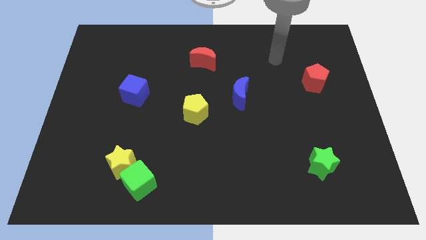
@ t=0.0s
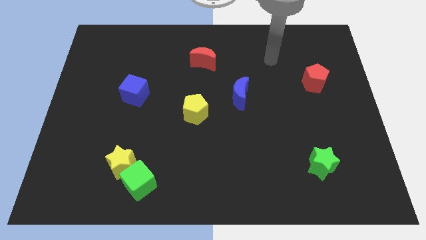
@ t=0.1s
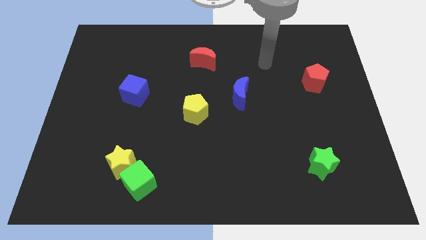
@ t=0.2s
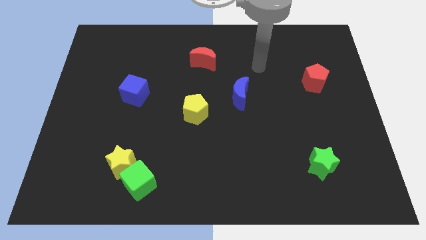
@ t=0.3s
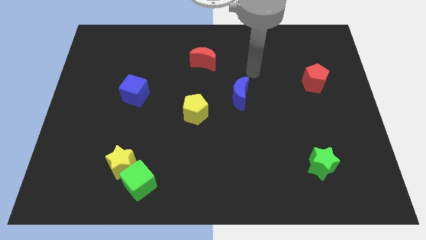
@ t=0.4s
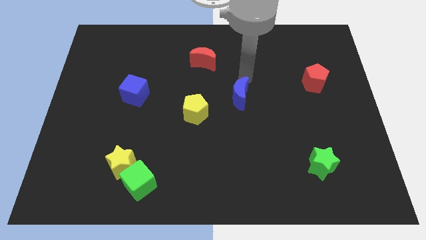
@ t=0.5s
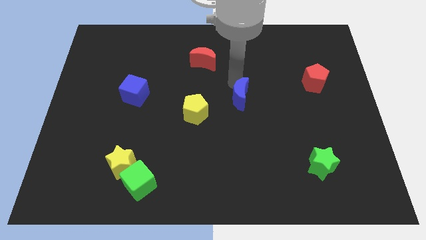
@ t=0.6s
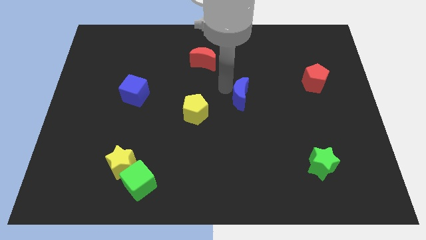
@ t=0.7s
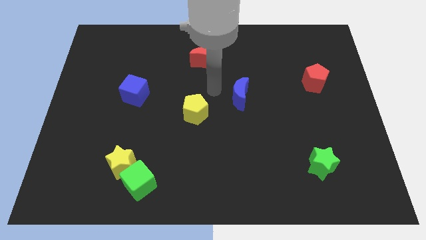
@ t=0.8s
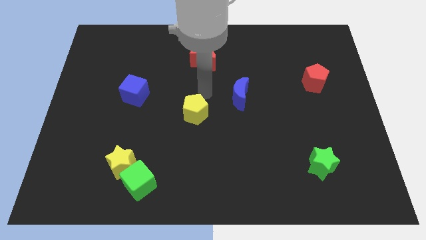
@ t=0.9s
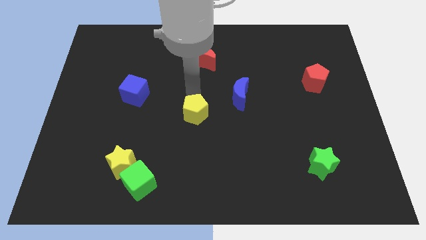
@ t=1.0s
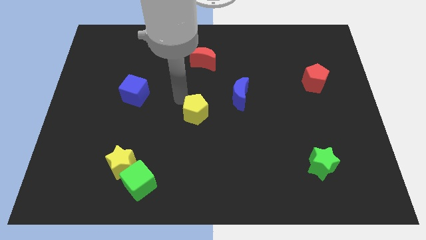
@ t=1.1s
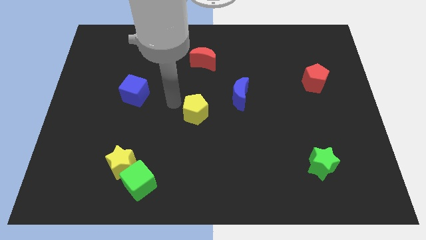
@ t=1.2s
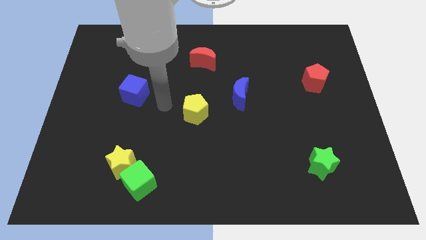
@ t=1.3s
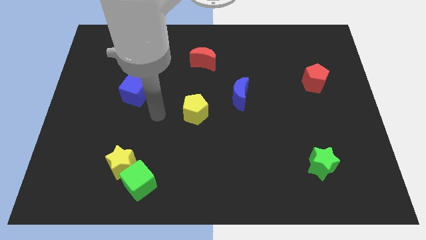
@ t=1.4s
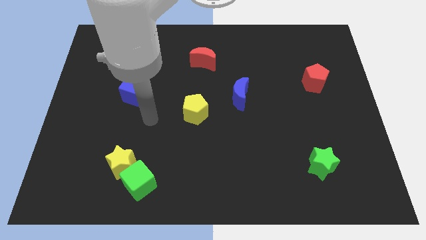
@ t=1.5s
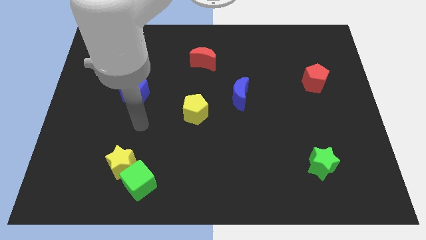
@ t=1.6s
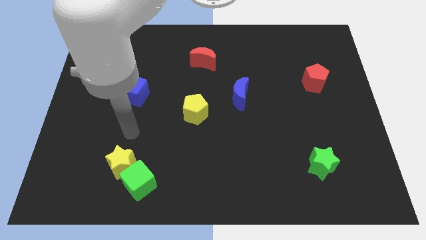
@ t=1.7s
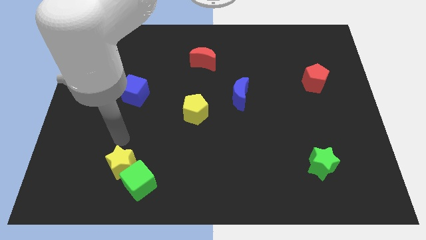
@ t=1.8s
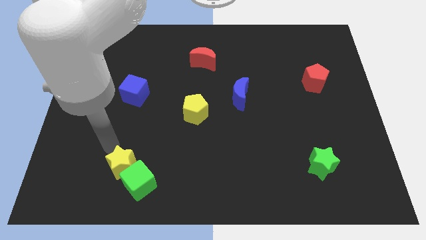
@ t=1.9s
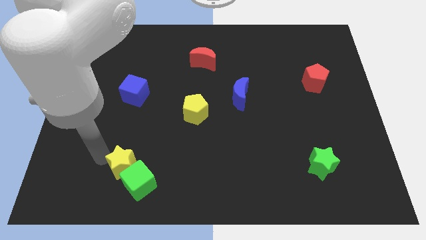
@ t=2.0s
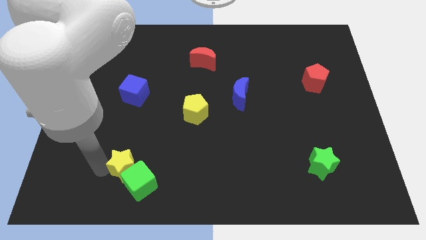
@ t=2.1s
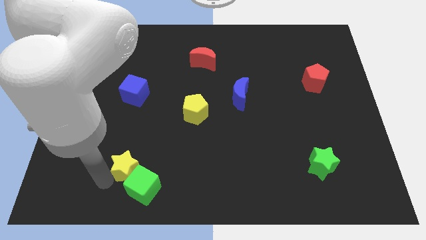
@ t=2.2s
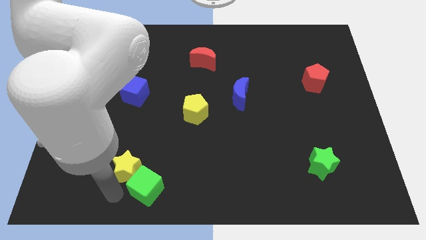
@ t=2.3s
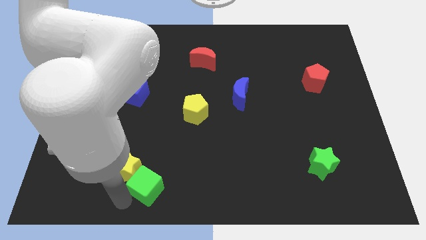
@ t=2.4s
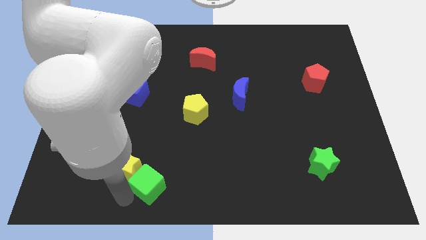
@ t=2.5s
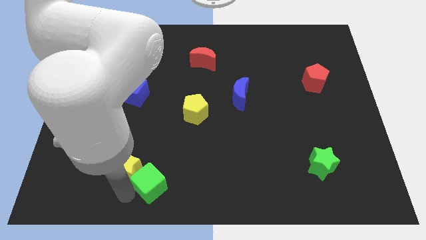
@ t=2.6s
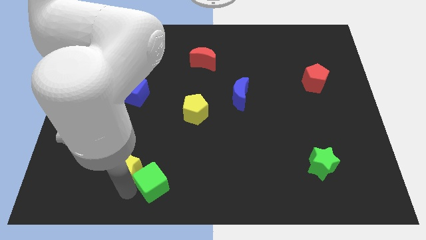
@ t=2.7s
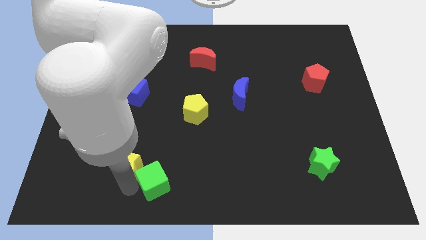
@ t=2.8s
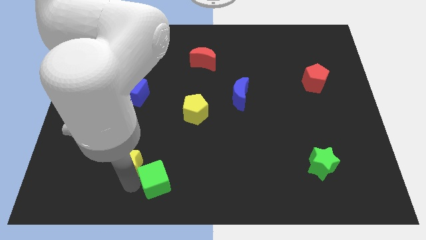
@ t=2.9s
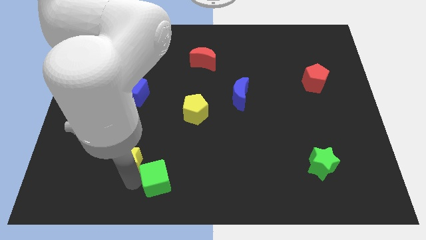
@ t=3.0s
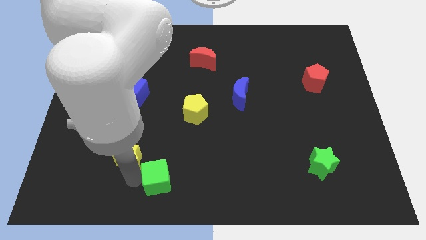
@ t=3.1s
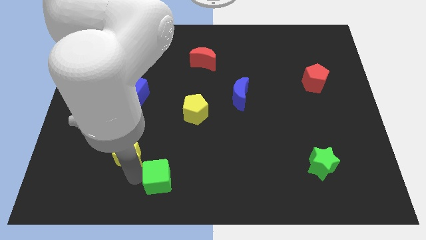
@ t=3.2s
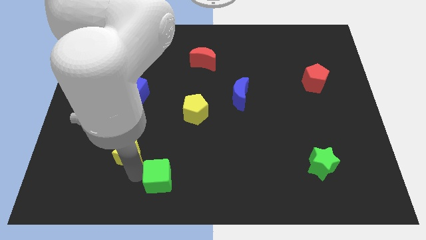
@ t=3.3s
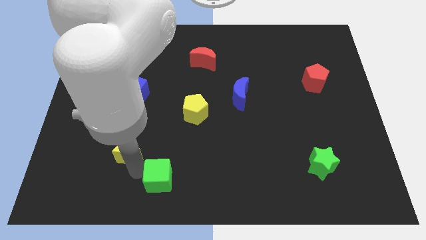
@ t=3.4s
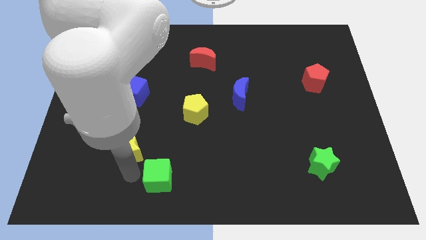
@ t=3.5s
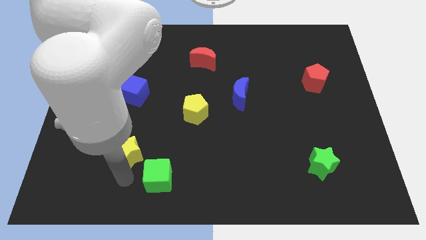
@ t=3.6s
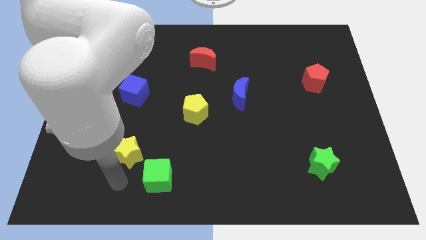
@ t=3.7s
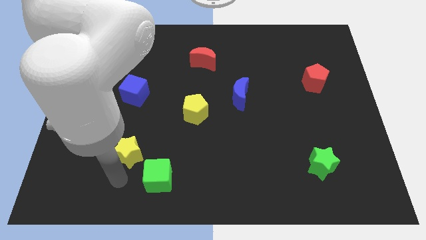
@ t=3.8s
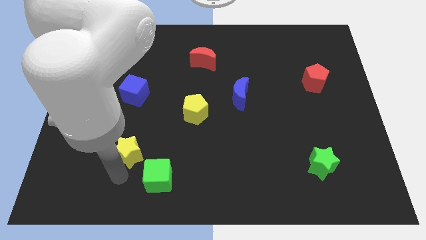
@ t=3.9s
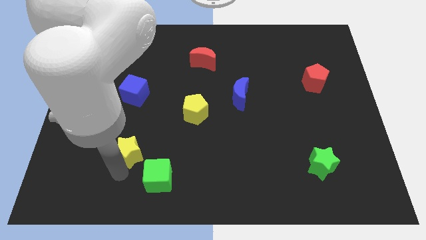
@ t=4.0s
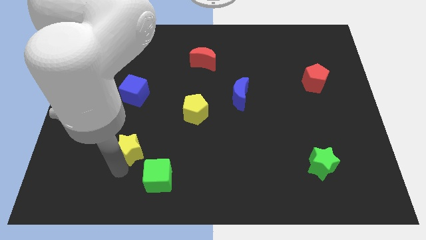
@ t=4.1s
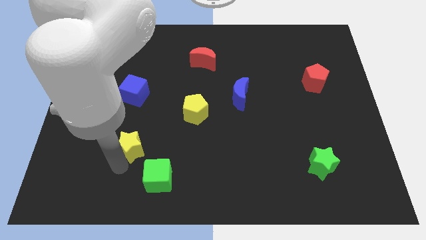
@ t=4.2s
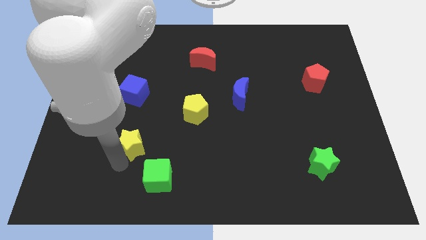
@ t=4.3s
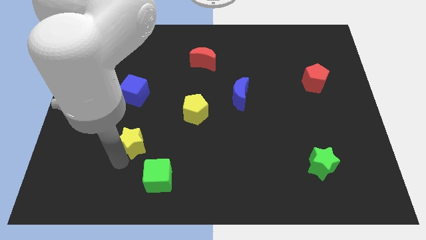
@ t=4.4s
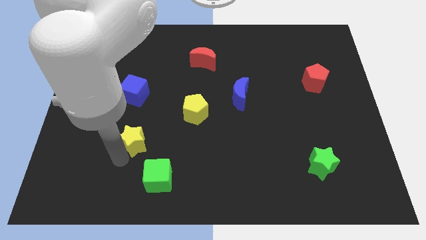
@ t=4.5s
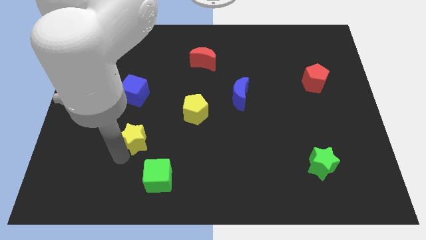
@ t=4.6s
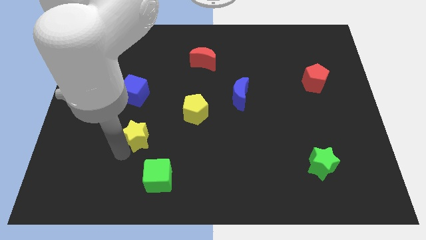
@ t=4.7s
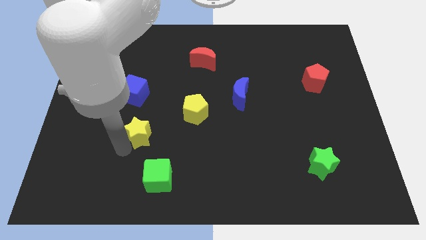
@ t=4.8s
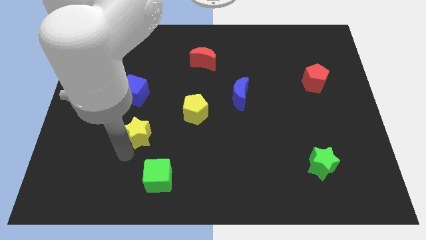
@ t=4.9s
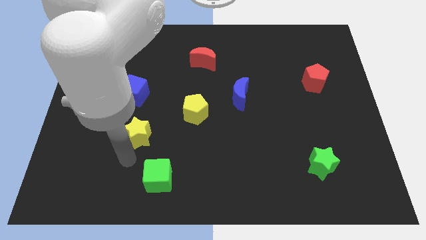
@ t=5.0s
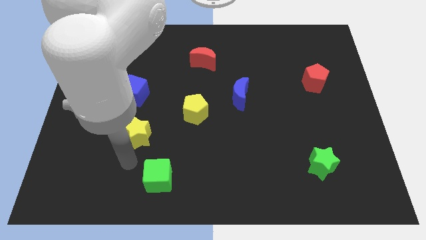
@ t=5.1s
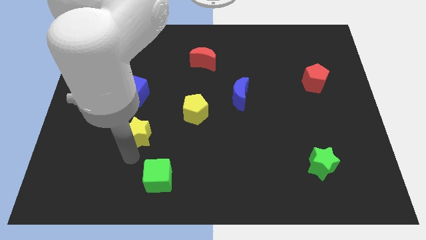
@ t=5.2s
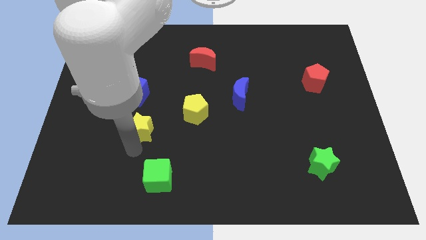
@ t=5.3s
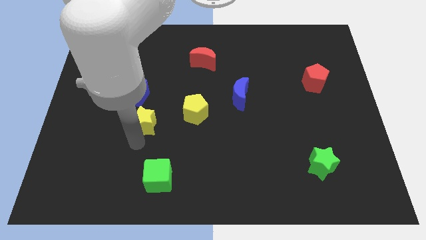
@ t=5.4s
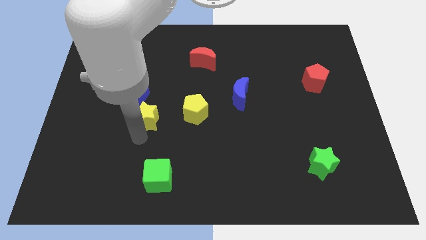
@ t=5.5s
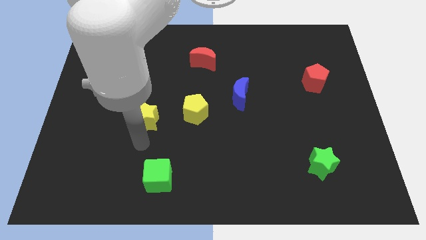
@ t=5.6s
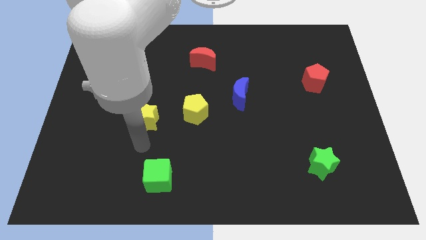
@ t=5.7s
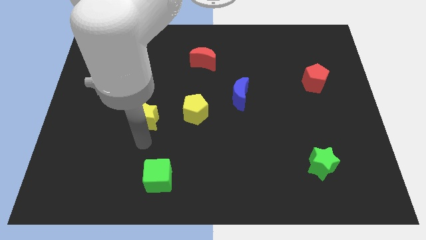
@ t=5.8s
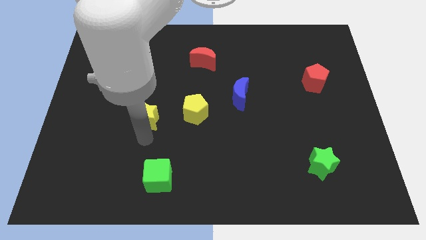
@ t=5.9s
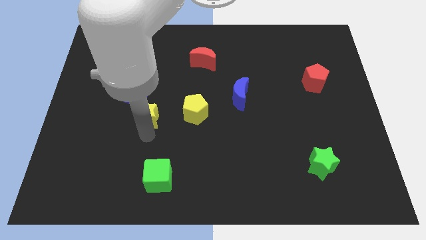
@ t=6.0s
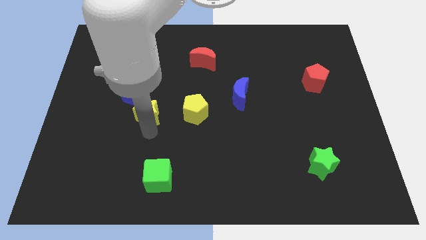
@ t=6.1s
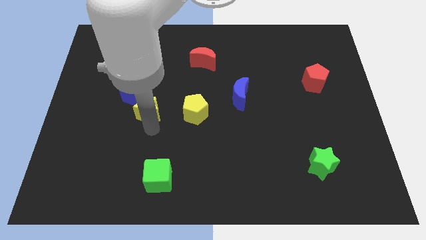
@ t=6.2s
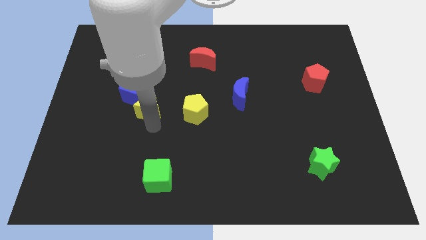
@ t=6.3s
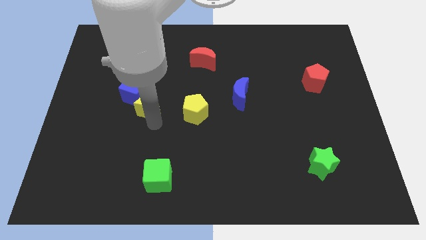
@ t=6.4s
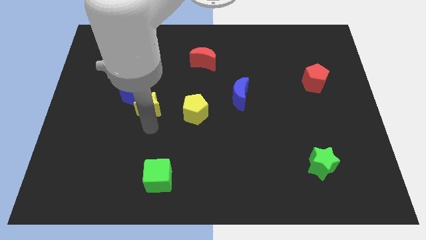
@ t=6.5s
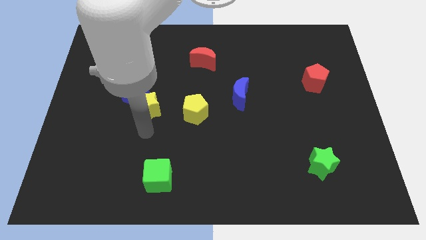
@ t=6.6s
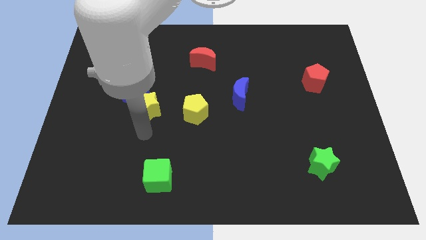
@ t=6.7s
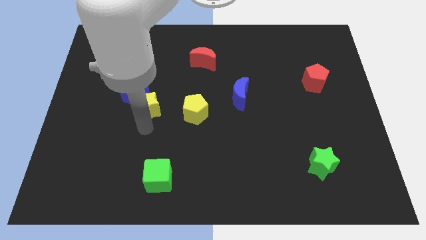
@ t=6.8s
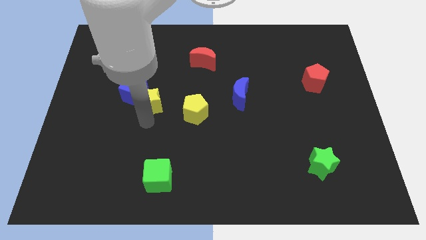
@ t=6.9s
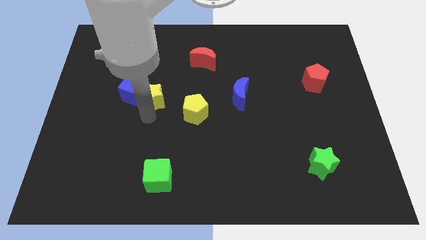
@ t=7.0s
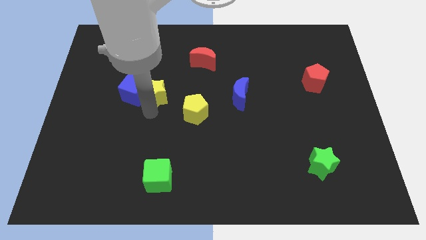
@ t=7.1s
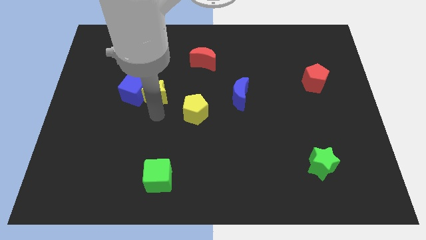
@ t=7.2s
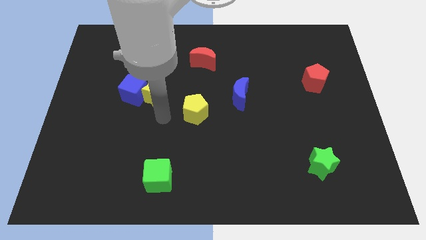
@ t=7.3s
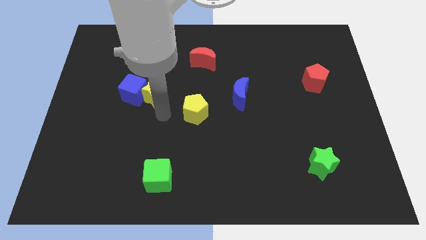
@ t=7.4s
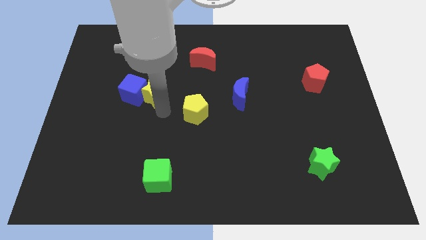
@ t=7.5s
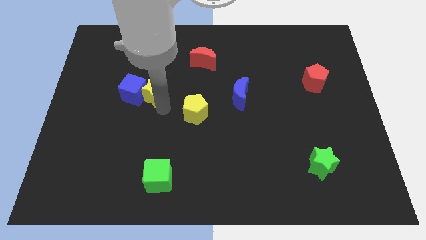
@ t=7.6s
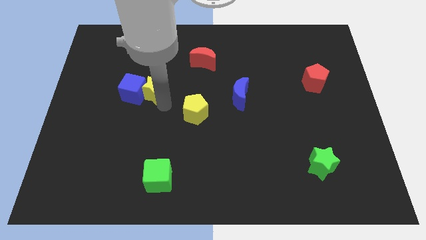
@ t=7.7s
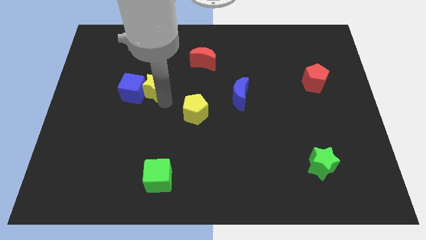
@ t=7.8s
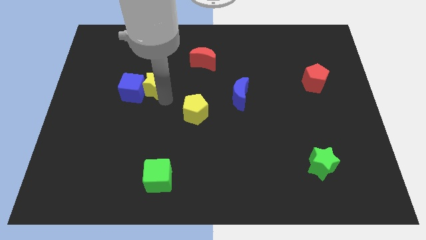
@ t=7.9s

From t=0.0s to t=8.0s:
move the yellow star up
